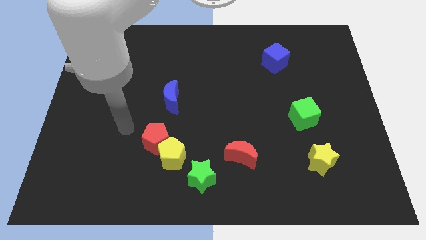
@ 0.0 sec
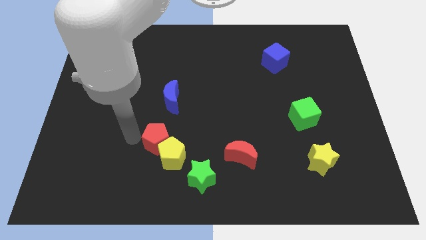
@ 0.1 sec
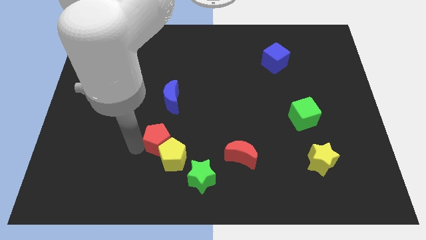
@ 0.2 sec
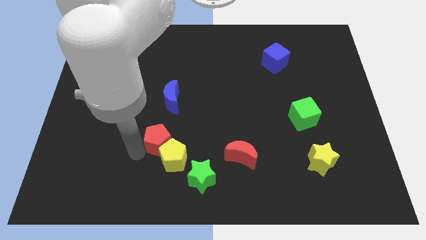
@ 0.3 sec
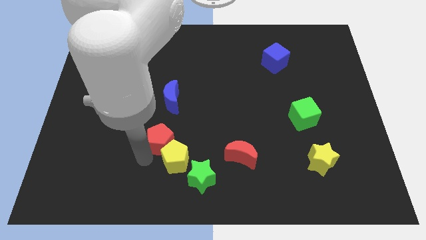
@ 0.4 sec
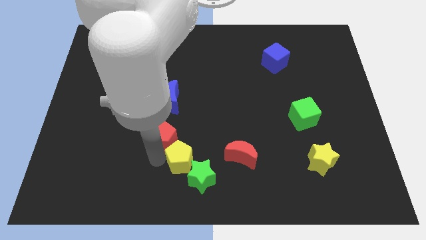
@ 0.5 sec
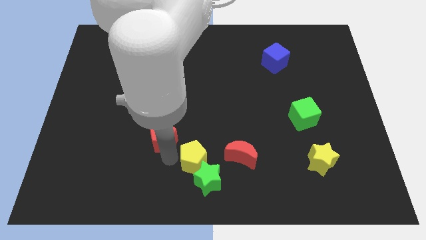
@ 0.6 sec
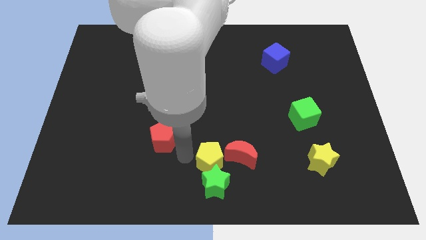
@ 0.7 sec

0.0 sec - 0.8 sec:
pull the red pentagon apart from the yellow pentagon

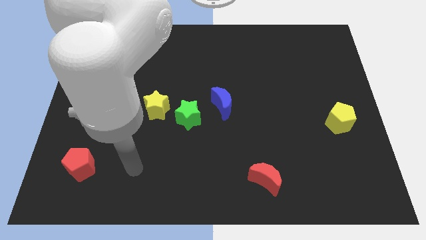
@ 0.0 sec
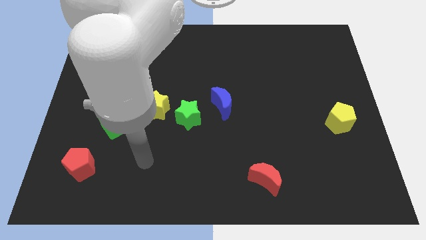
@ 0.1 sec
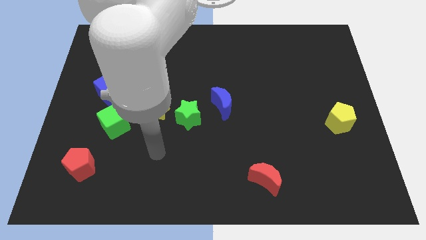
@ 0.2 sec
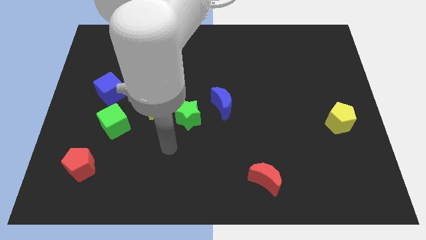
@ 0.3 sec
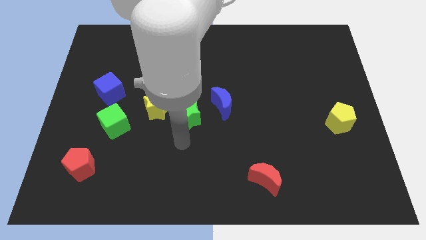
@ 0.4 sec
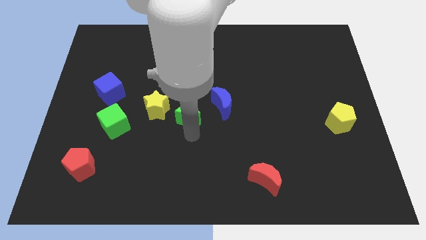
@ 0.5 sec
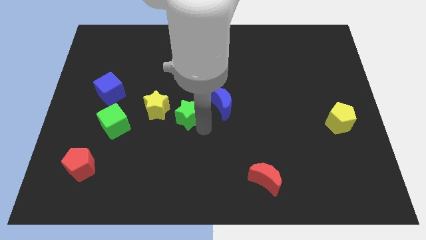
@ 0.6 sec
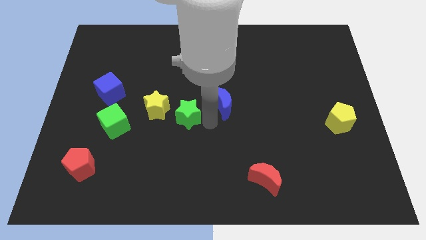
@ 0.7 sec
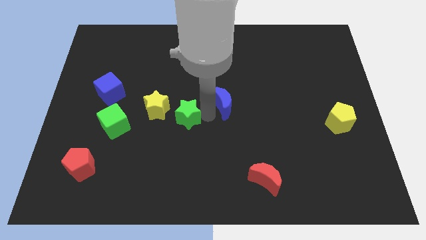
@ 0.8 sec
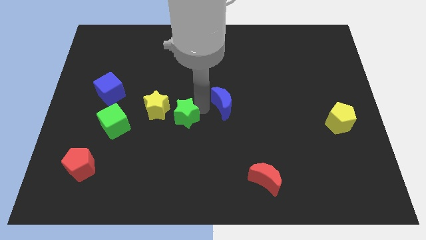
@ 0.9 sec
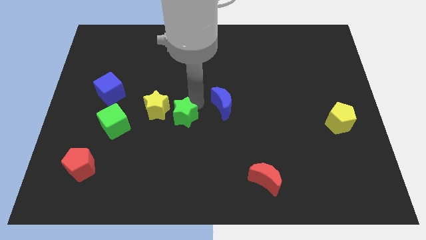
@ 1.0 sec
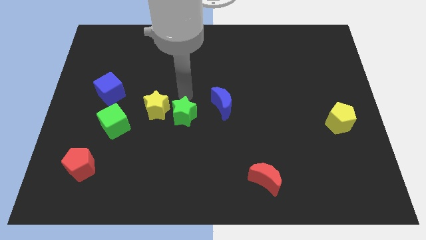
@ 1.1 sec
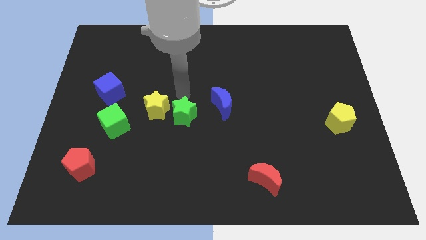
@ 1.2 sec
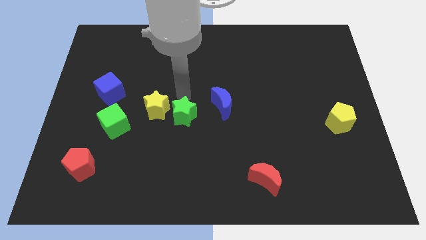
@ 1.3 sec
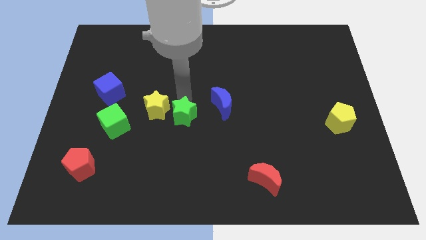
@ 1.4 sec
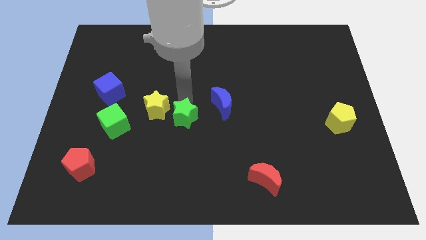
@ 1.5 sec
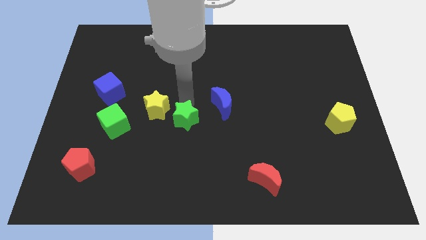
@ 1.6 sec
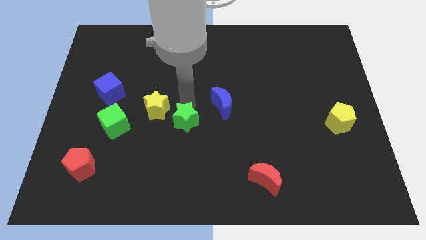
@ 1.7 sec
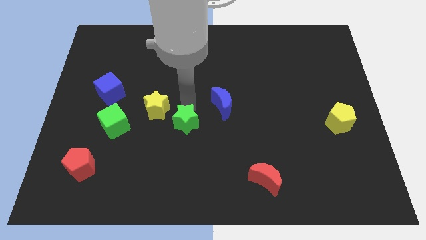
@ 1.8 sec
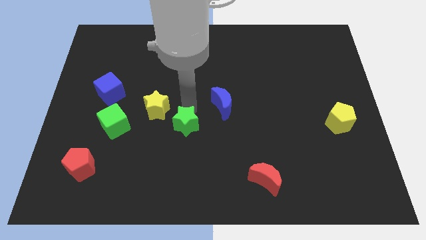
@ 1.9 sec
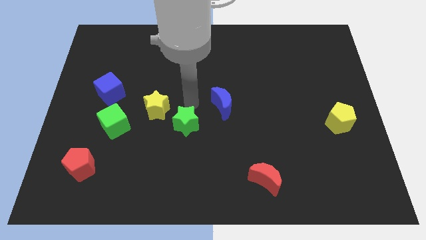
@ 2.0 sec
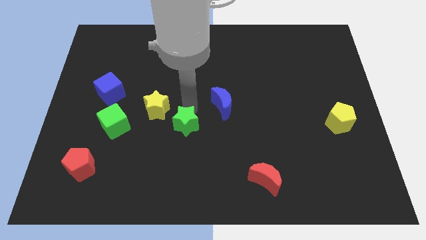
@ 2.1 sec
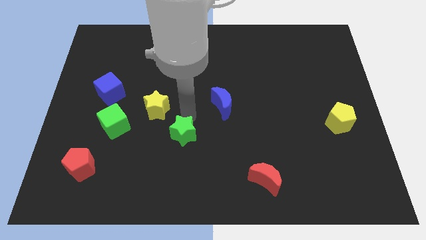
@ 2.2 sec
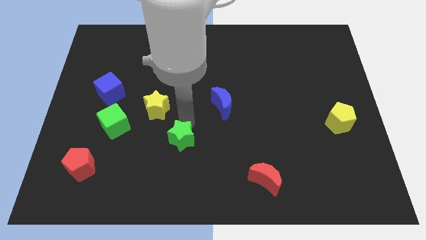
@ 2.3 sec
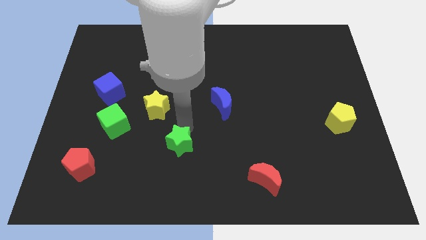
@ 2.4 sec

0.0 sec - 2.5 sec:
separate the green star from the yellow star and blue moon

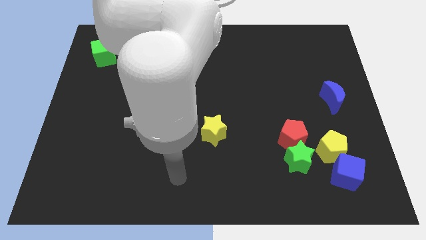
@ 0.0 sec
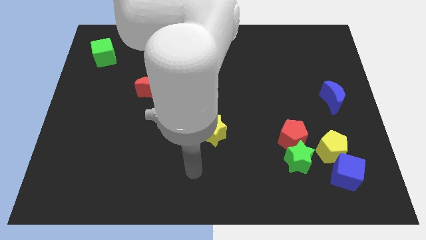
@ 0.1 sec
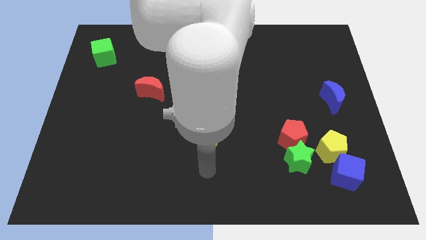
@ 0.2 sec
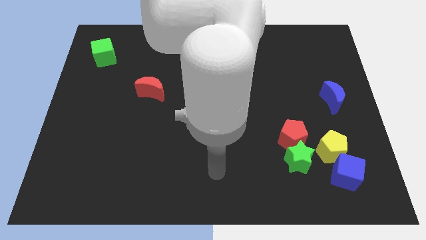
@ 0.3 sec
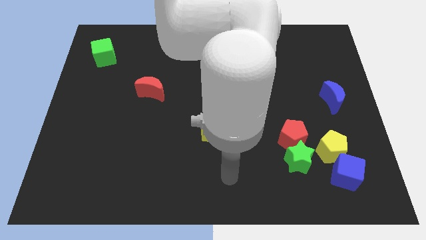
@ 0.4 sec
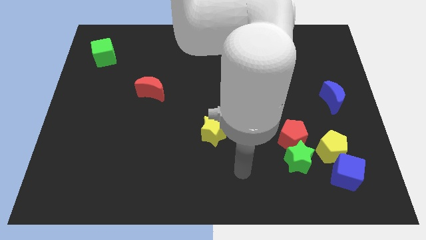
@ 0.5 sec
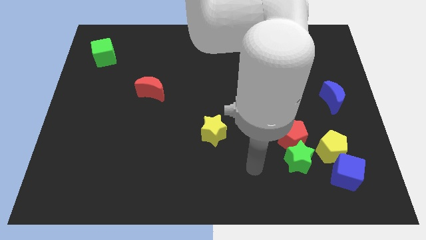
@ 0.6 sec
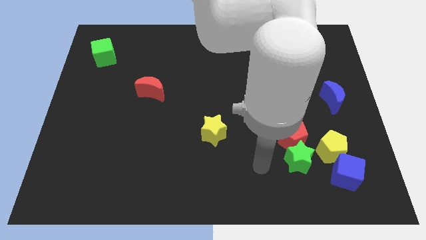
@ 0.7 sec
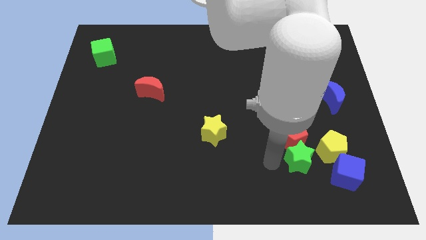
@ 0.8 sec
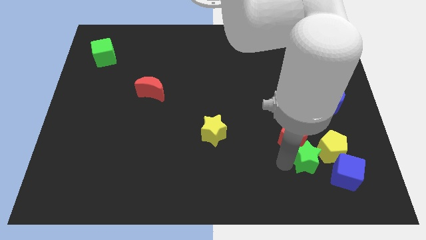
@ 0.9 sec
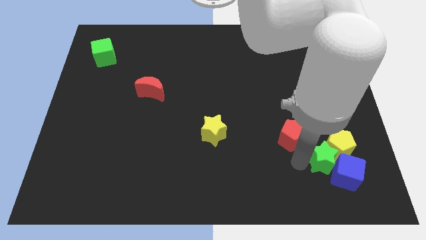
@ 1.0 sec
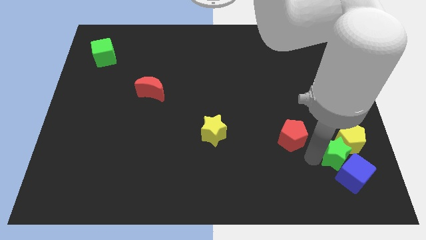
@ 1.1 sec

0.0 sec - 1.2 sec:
separate the red pentagon from the green star and yellow pentagon

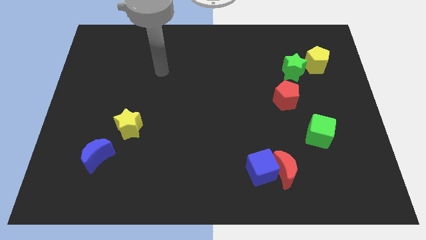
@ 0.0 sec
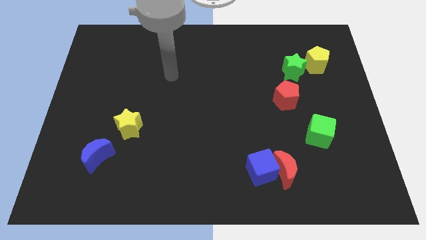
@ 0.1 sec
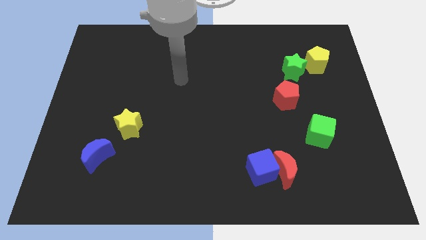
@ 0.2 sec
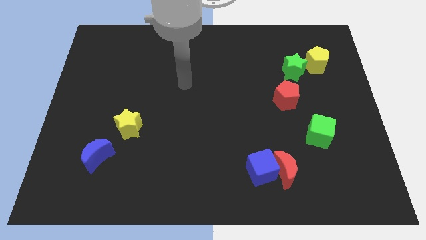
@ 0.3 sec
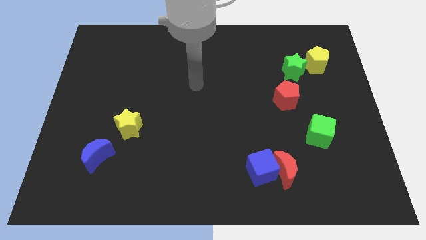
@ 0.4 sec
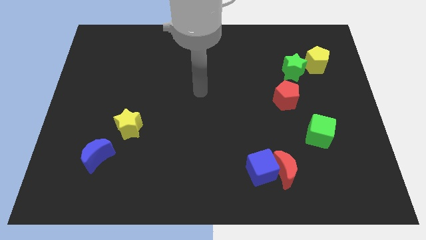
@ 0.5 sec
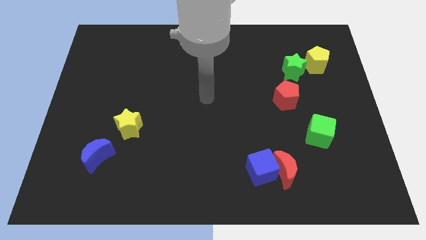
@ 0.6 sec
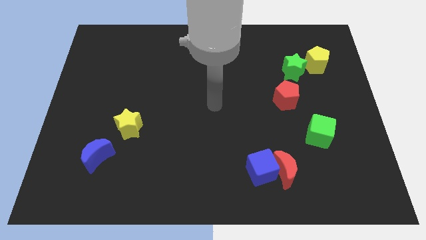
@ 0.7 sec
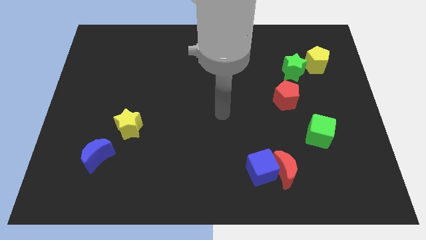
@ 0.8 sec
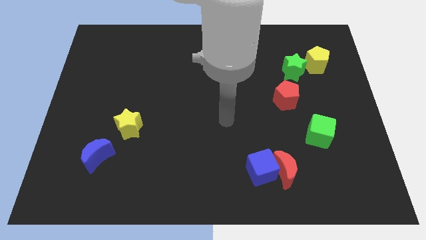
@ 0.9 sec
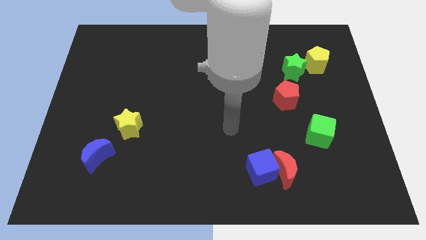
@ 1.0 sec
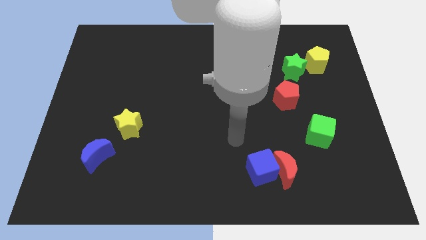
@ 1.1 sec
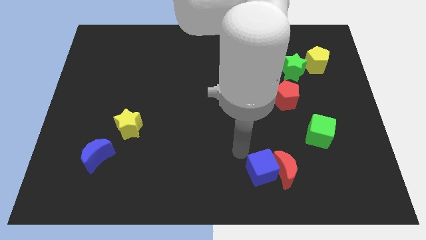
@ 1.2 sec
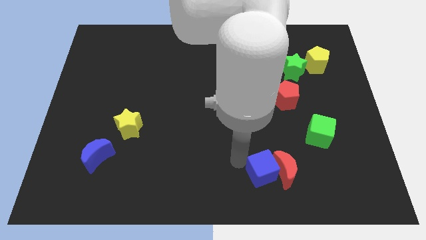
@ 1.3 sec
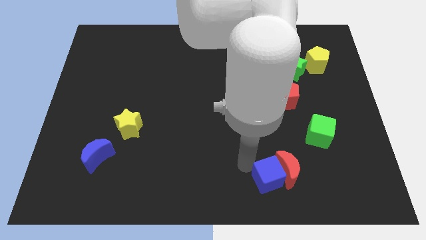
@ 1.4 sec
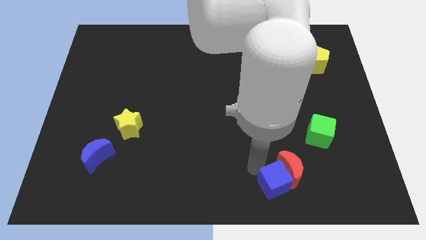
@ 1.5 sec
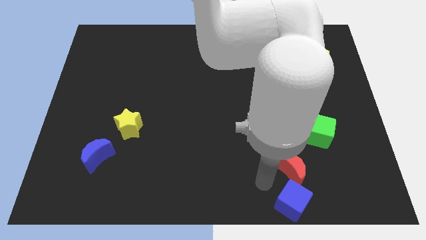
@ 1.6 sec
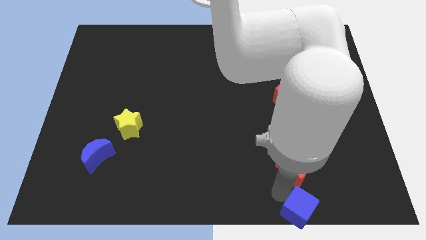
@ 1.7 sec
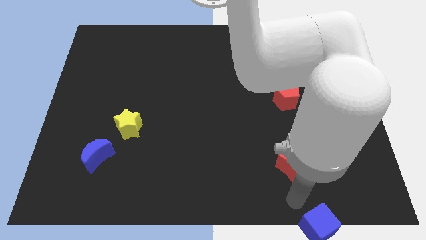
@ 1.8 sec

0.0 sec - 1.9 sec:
pull the red moon apart from the blue cube

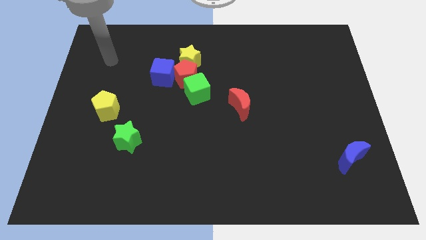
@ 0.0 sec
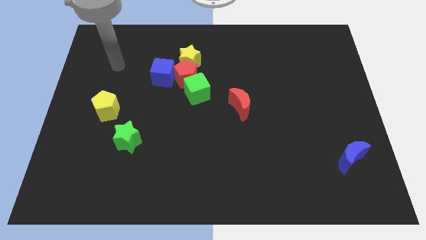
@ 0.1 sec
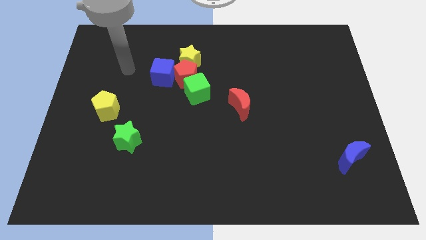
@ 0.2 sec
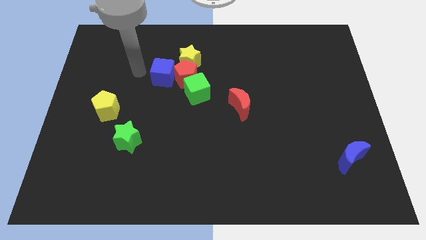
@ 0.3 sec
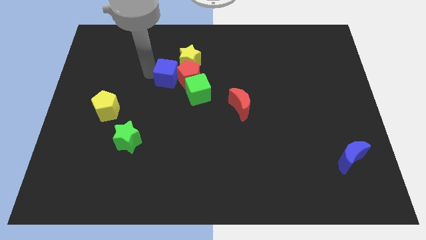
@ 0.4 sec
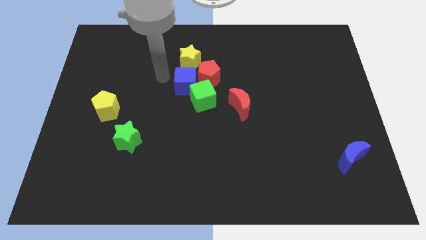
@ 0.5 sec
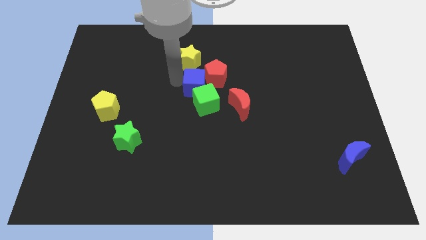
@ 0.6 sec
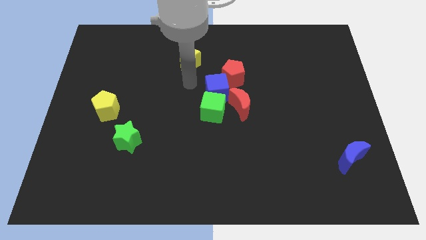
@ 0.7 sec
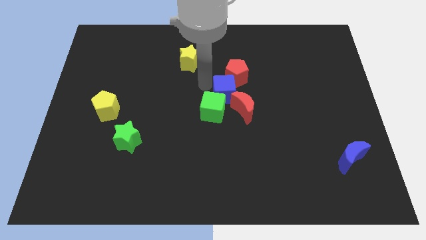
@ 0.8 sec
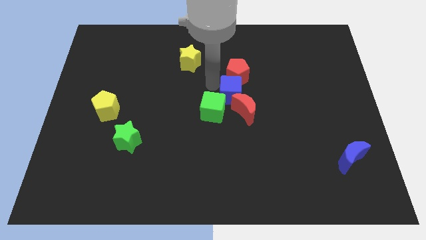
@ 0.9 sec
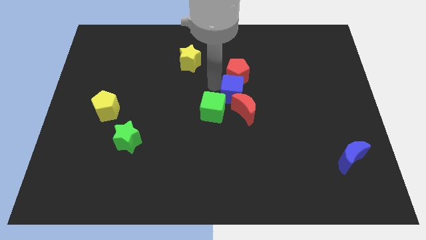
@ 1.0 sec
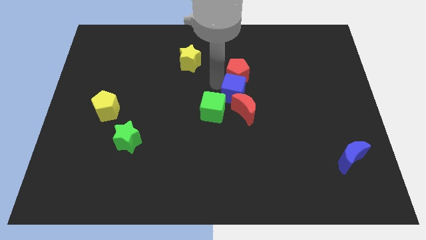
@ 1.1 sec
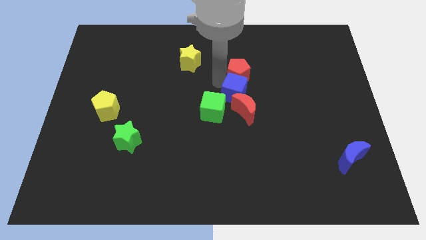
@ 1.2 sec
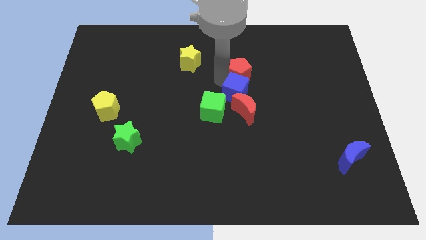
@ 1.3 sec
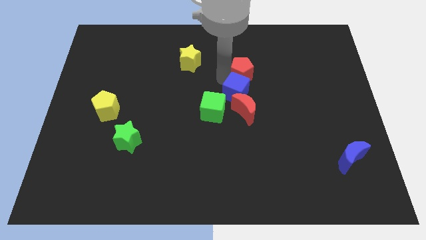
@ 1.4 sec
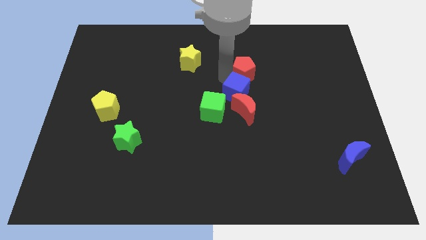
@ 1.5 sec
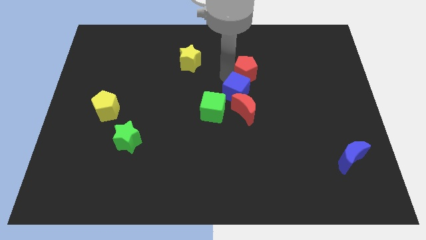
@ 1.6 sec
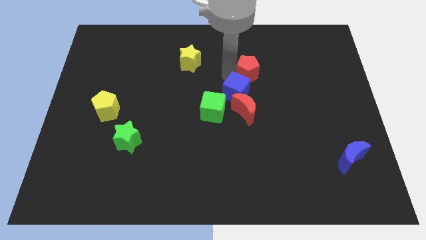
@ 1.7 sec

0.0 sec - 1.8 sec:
move the red pentagon away from the yellow star, blue cube, and green cube

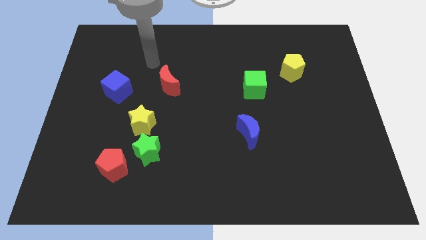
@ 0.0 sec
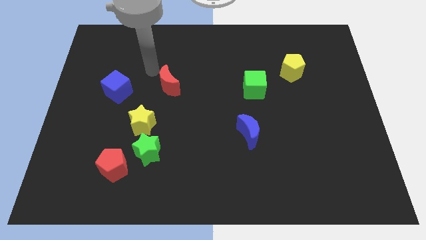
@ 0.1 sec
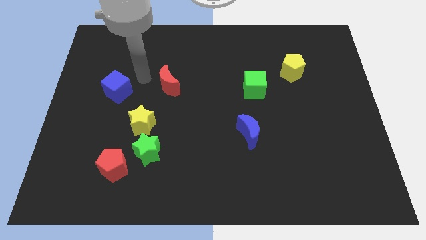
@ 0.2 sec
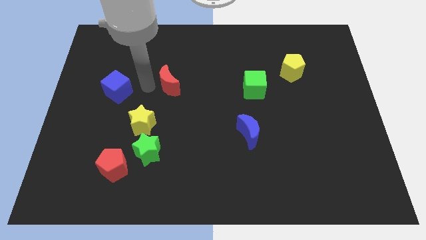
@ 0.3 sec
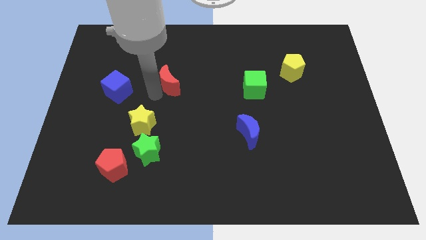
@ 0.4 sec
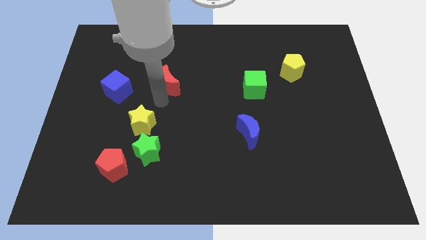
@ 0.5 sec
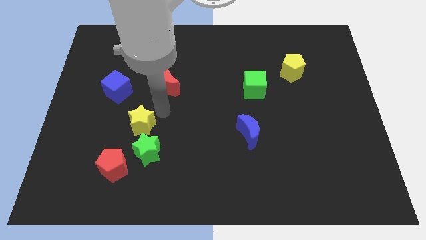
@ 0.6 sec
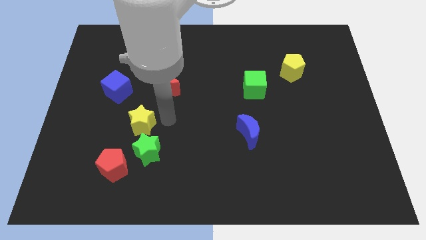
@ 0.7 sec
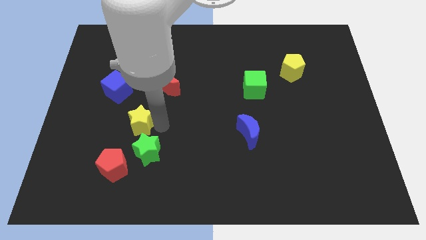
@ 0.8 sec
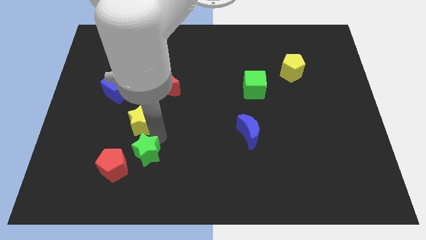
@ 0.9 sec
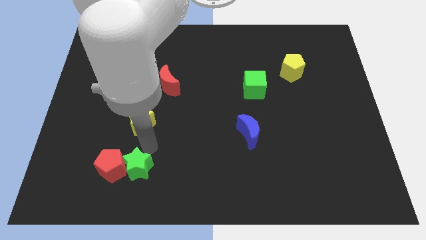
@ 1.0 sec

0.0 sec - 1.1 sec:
move the yellow star away from the green star
